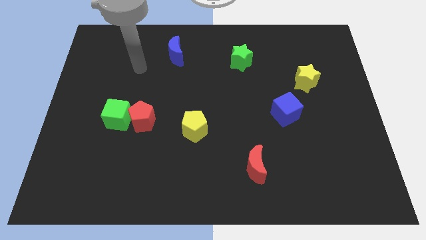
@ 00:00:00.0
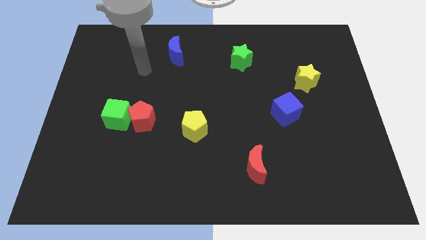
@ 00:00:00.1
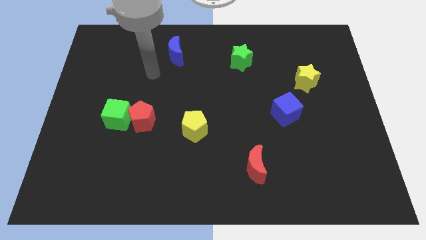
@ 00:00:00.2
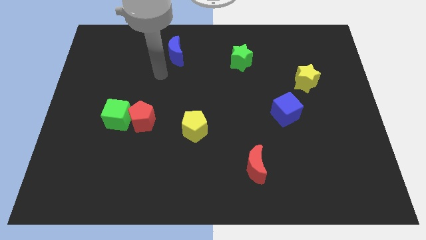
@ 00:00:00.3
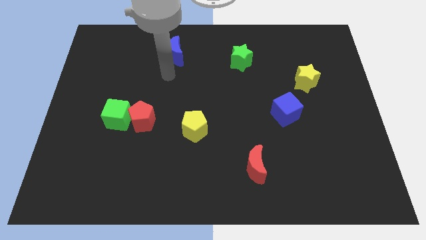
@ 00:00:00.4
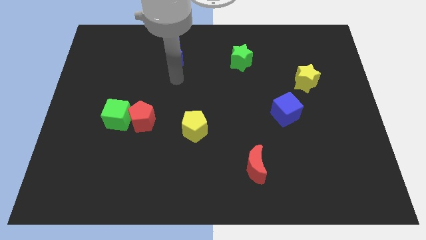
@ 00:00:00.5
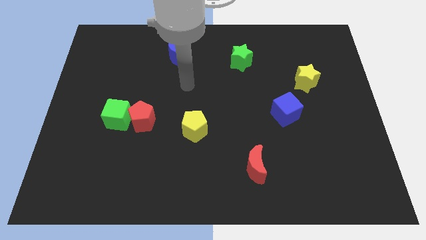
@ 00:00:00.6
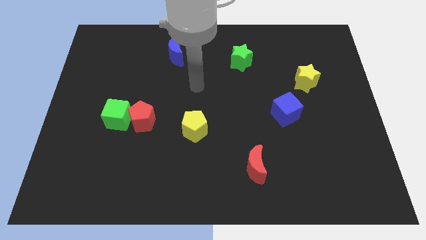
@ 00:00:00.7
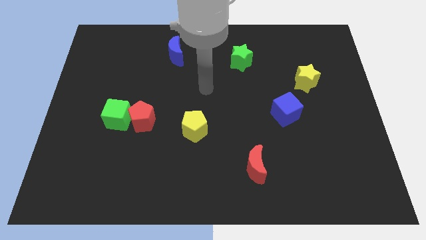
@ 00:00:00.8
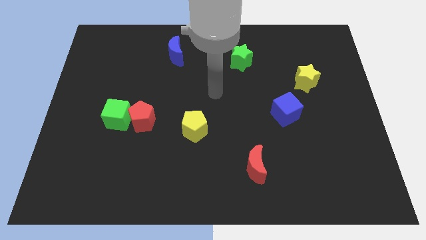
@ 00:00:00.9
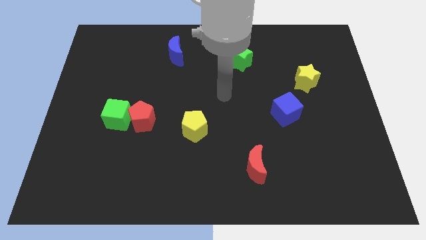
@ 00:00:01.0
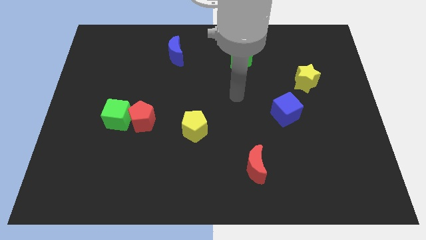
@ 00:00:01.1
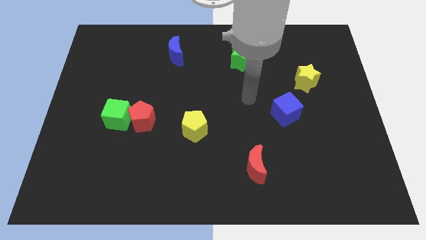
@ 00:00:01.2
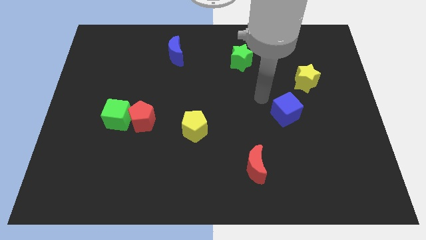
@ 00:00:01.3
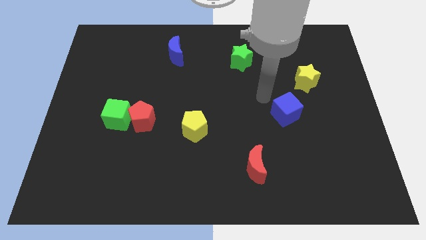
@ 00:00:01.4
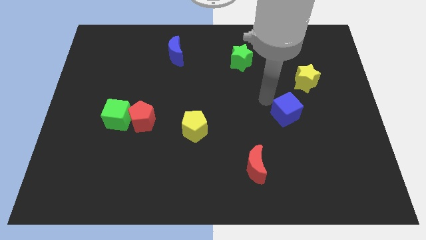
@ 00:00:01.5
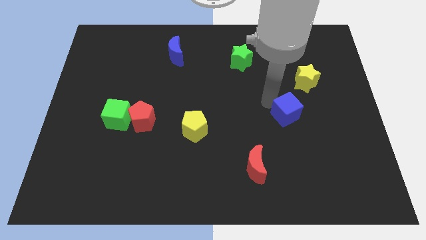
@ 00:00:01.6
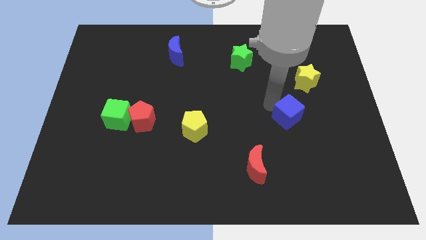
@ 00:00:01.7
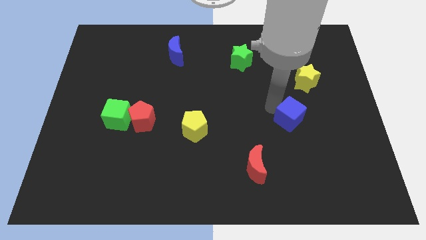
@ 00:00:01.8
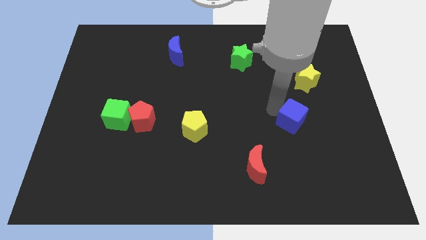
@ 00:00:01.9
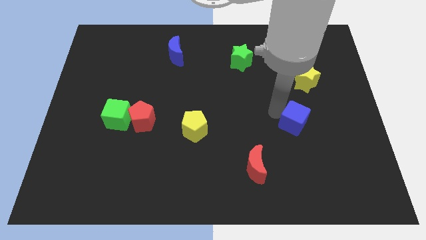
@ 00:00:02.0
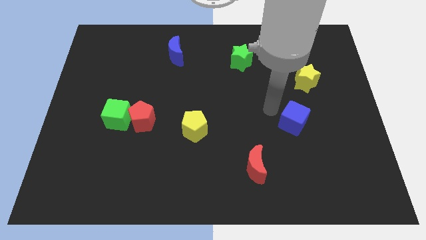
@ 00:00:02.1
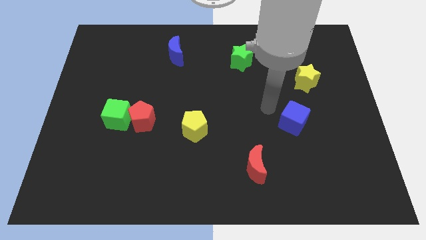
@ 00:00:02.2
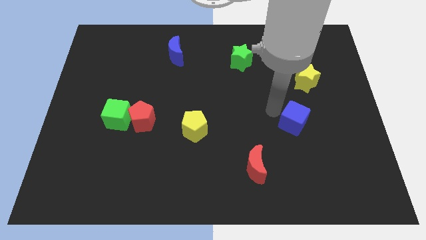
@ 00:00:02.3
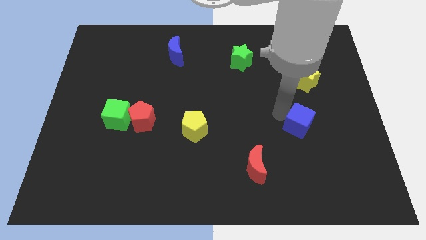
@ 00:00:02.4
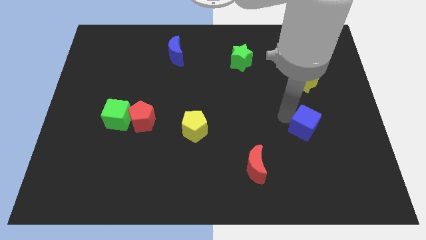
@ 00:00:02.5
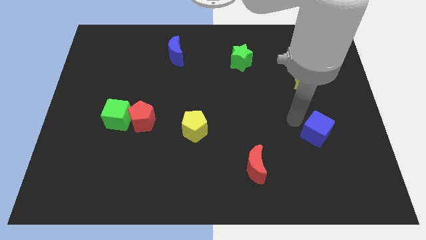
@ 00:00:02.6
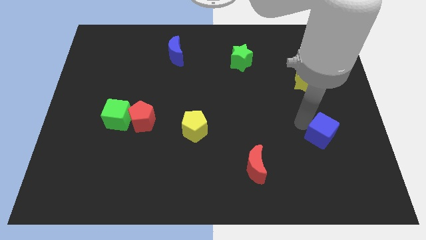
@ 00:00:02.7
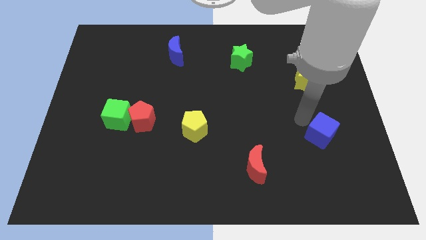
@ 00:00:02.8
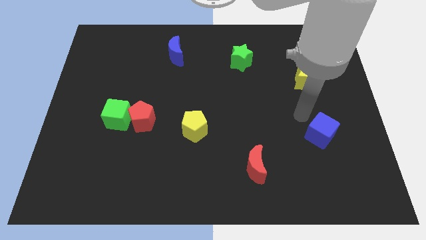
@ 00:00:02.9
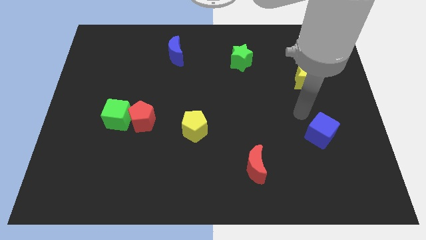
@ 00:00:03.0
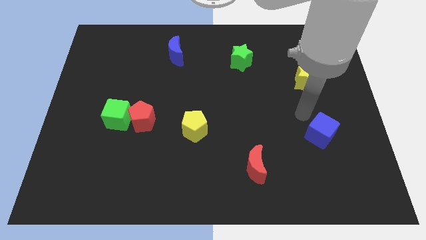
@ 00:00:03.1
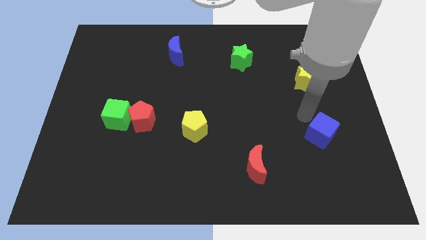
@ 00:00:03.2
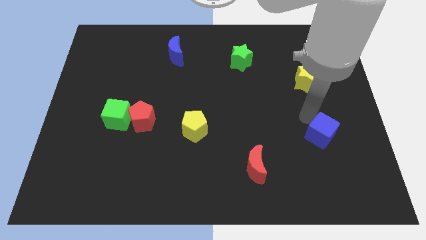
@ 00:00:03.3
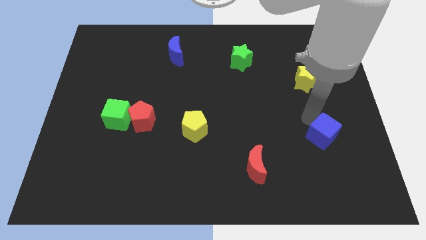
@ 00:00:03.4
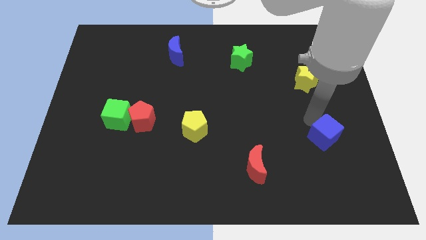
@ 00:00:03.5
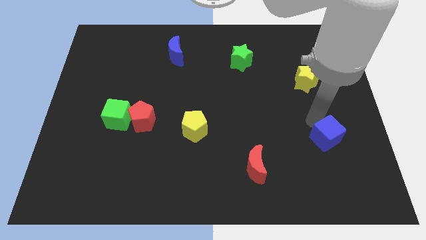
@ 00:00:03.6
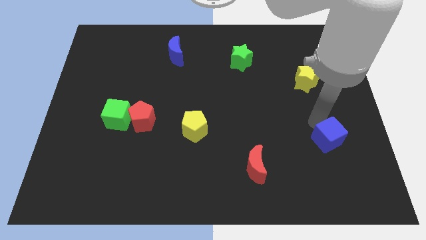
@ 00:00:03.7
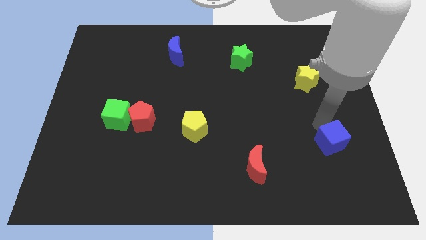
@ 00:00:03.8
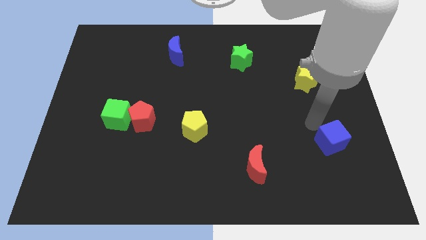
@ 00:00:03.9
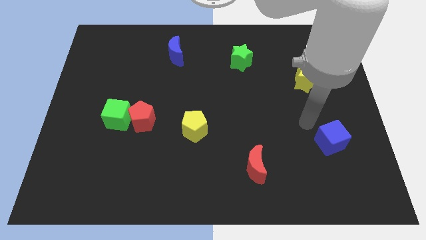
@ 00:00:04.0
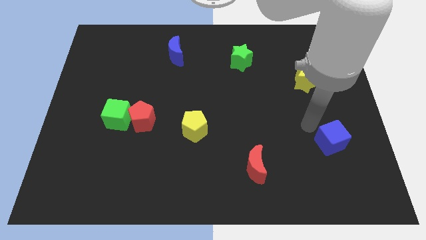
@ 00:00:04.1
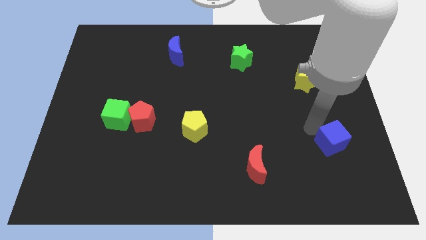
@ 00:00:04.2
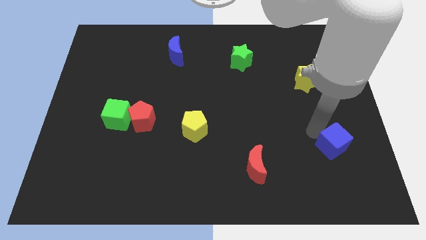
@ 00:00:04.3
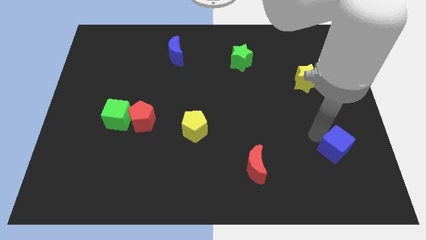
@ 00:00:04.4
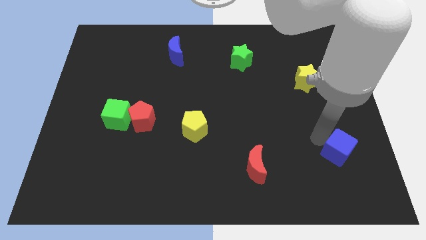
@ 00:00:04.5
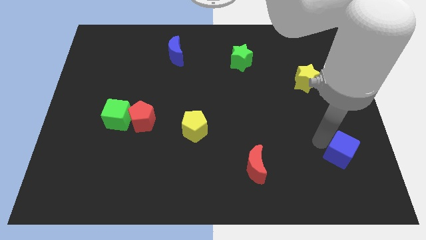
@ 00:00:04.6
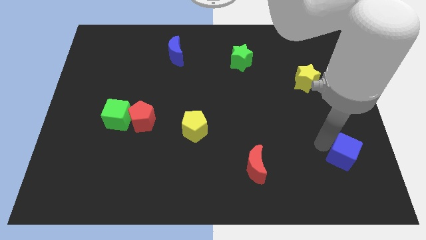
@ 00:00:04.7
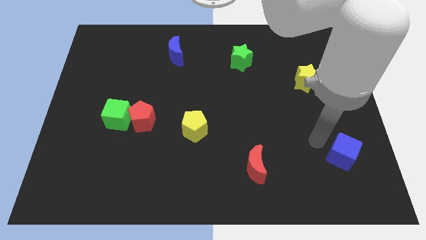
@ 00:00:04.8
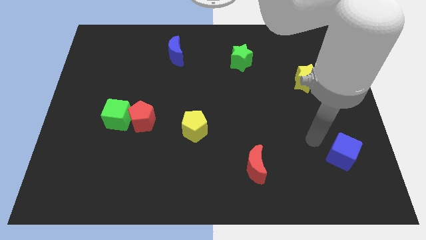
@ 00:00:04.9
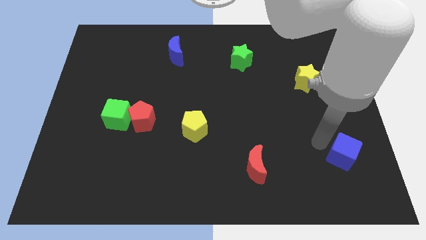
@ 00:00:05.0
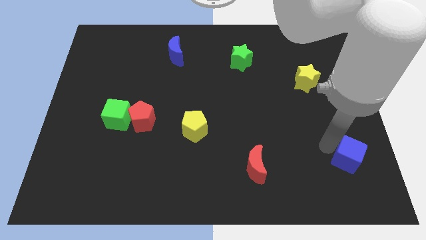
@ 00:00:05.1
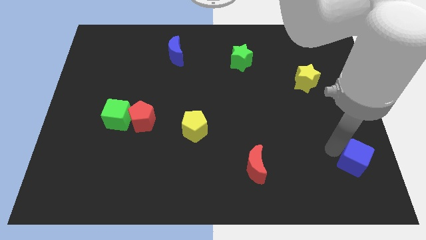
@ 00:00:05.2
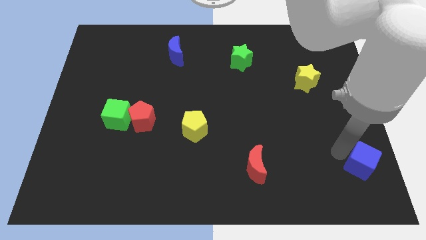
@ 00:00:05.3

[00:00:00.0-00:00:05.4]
slide the blue cube to the lower right corner

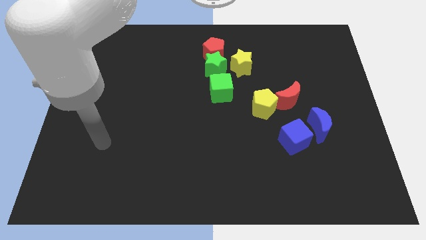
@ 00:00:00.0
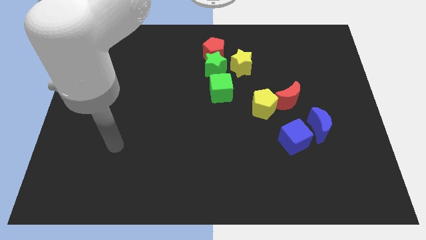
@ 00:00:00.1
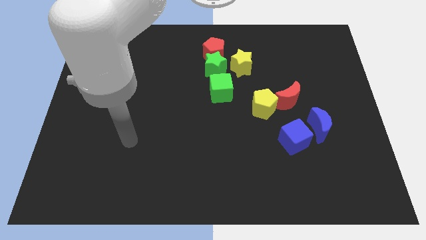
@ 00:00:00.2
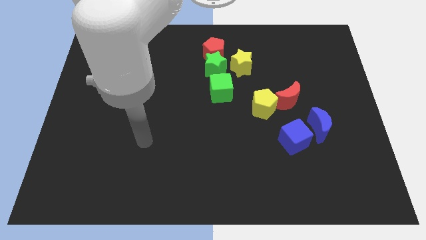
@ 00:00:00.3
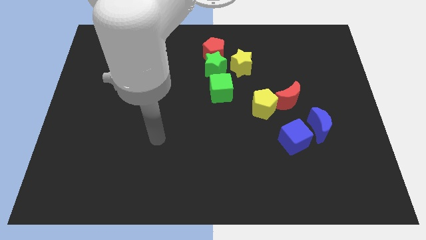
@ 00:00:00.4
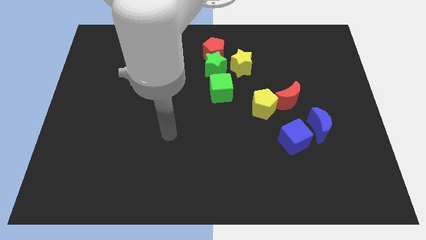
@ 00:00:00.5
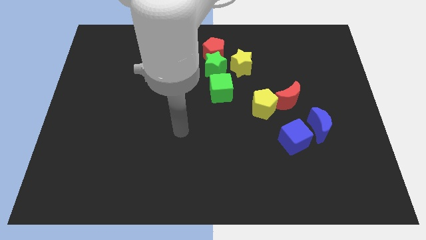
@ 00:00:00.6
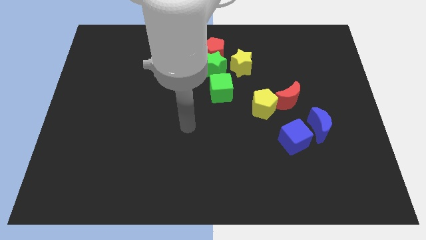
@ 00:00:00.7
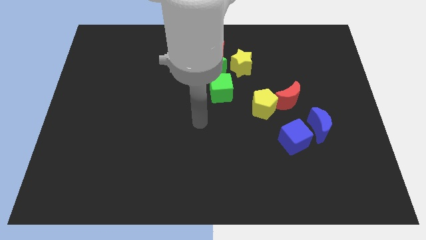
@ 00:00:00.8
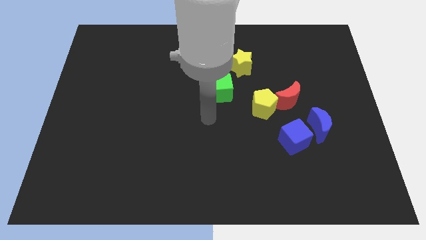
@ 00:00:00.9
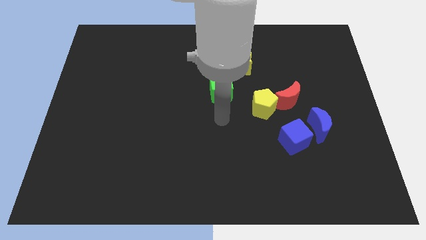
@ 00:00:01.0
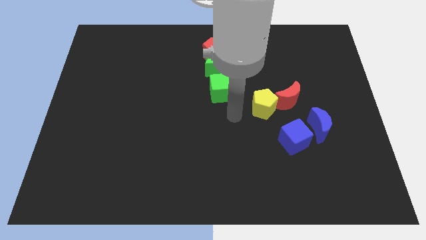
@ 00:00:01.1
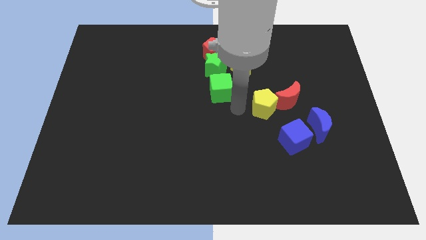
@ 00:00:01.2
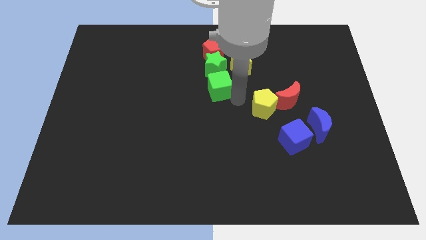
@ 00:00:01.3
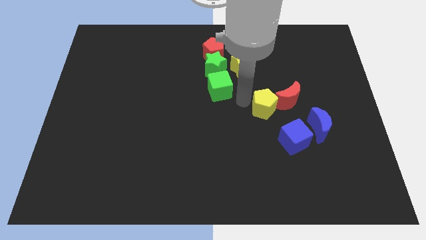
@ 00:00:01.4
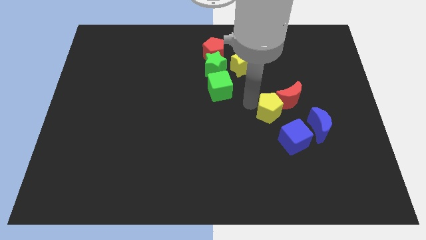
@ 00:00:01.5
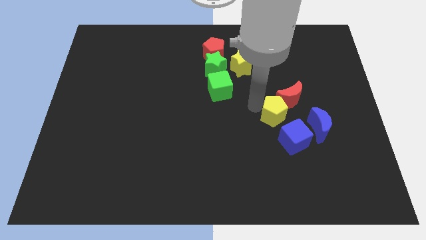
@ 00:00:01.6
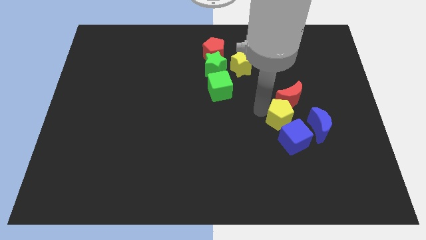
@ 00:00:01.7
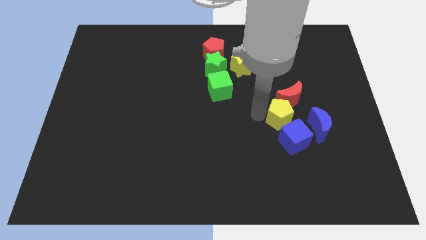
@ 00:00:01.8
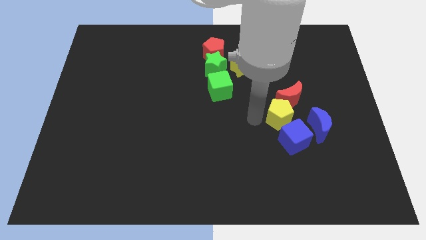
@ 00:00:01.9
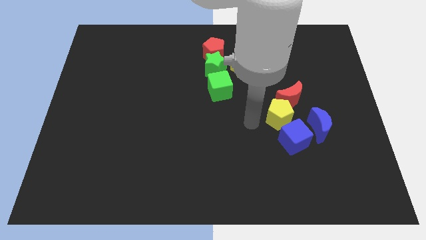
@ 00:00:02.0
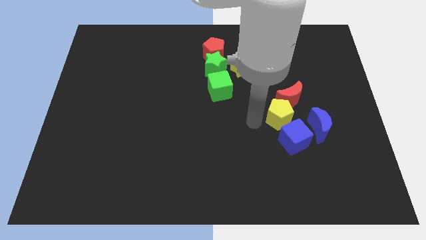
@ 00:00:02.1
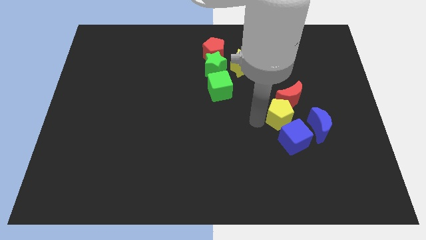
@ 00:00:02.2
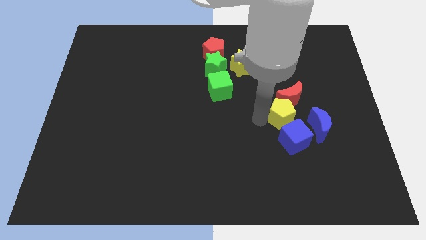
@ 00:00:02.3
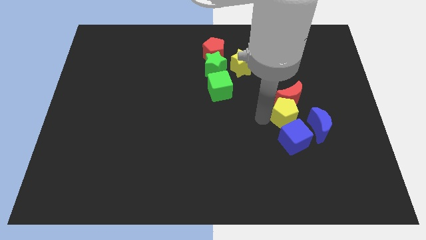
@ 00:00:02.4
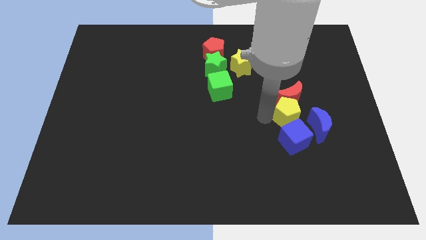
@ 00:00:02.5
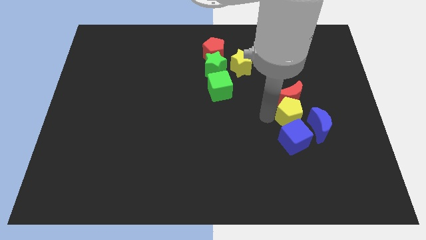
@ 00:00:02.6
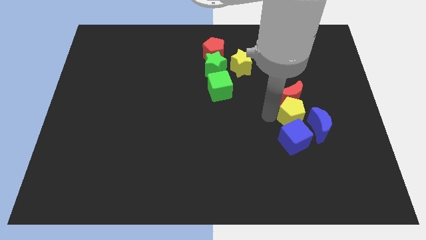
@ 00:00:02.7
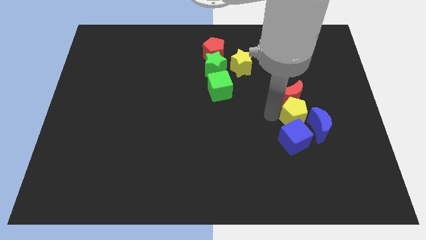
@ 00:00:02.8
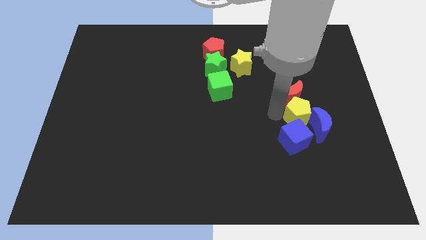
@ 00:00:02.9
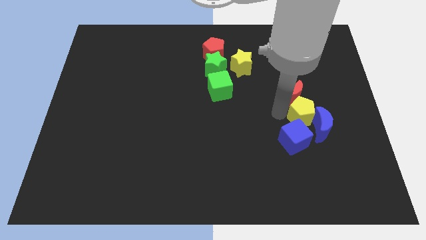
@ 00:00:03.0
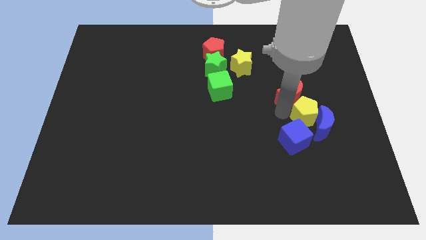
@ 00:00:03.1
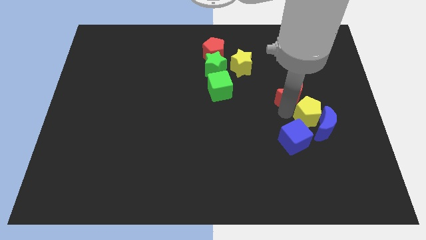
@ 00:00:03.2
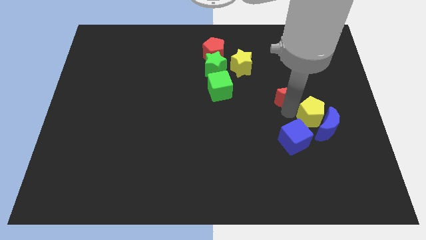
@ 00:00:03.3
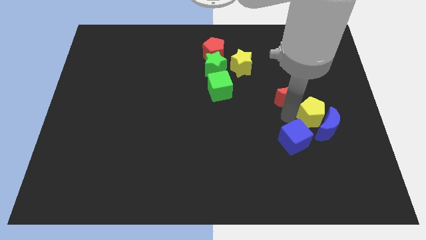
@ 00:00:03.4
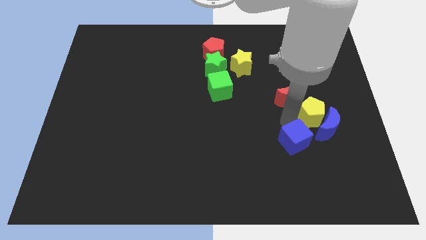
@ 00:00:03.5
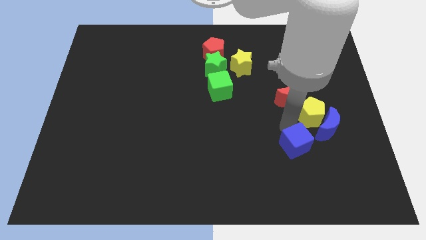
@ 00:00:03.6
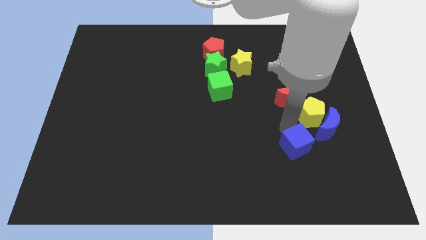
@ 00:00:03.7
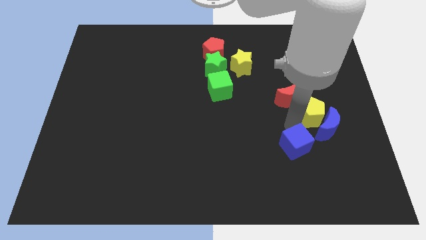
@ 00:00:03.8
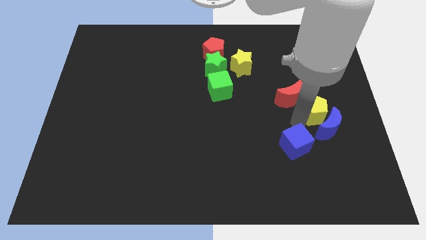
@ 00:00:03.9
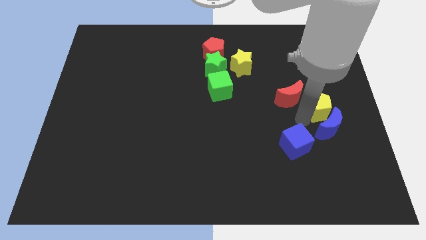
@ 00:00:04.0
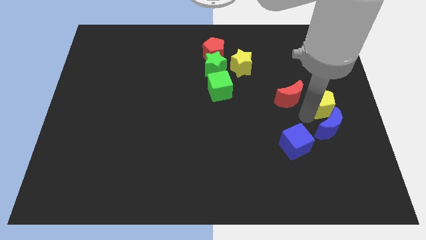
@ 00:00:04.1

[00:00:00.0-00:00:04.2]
push the yellow pentagon to the right side of the board
